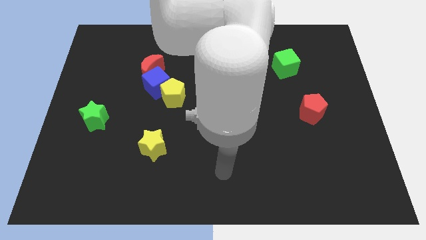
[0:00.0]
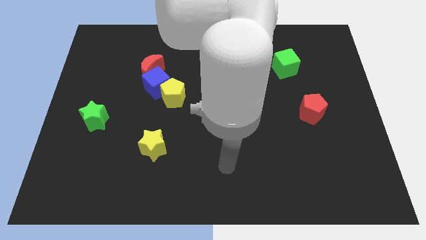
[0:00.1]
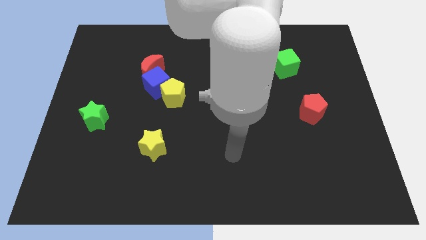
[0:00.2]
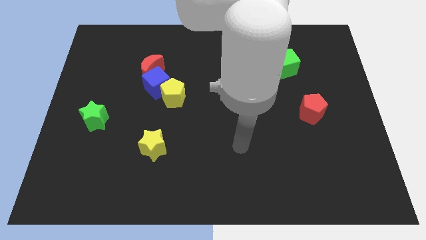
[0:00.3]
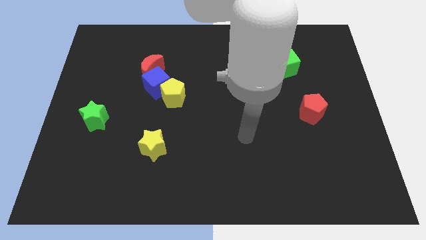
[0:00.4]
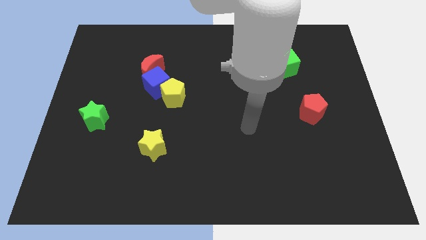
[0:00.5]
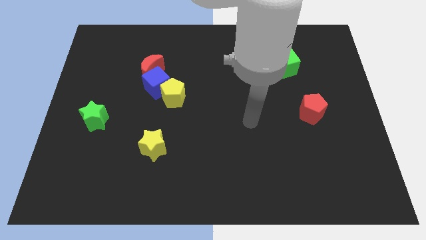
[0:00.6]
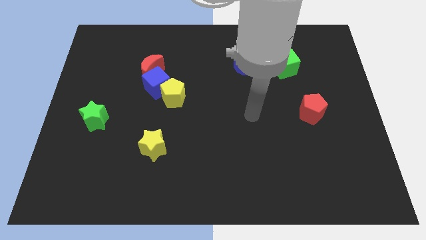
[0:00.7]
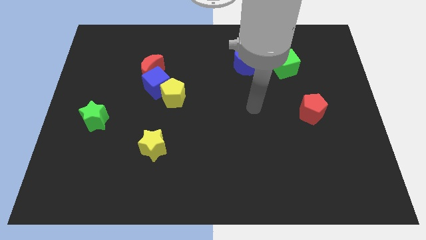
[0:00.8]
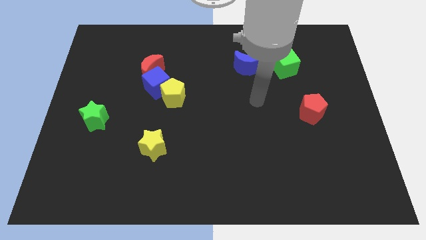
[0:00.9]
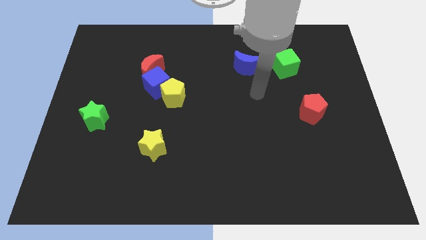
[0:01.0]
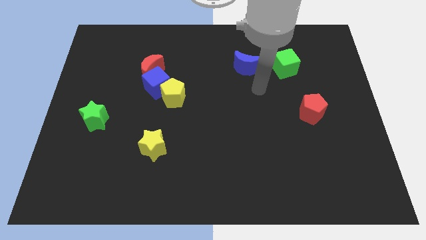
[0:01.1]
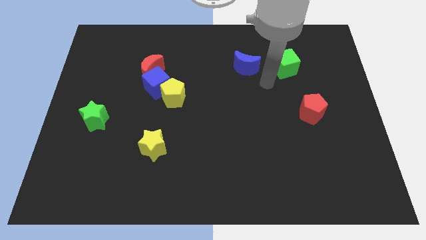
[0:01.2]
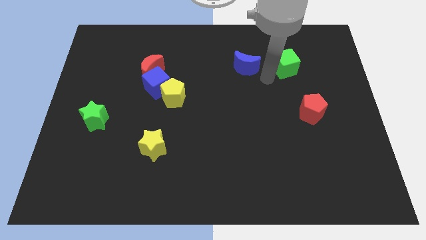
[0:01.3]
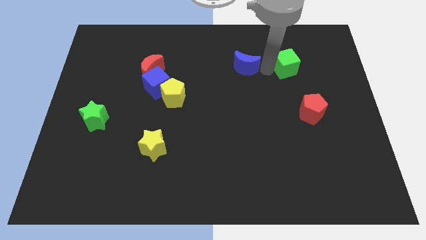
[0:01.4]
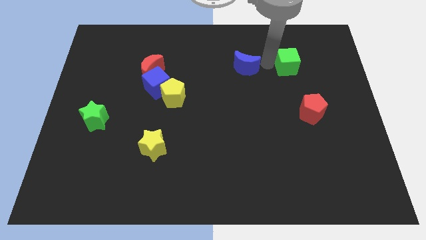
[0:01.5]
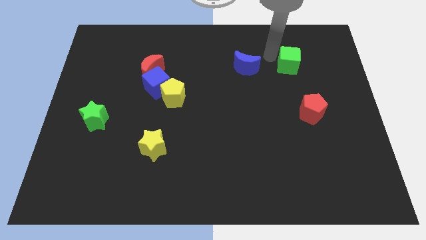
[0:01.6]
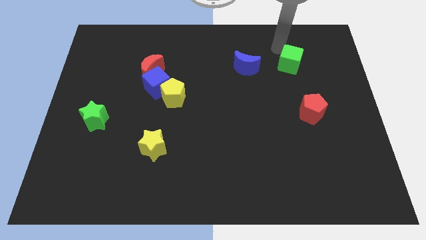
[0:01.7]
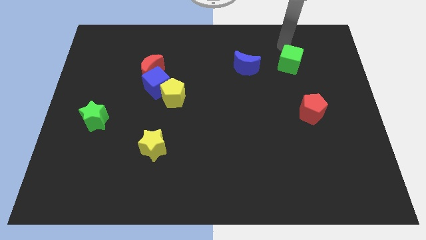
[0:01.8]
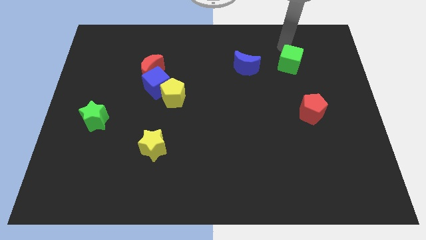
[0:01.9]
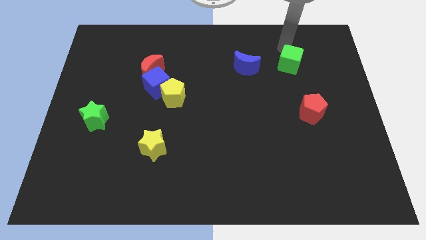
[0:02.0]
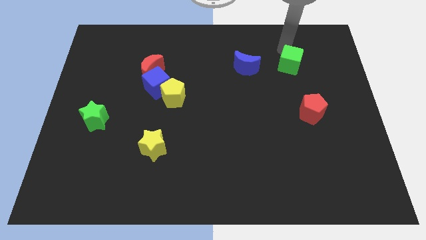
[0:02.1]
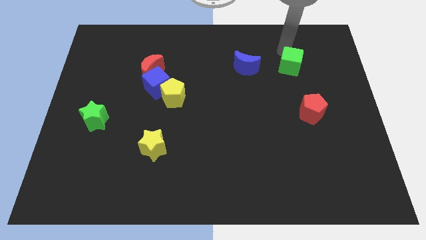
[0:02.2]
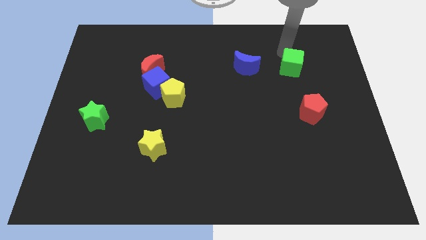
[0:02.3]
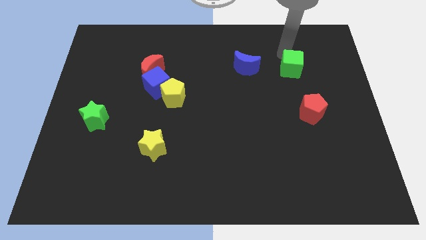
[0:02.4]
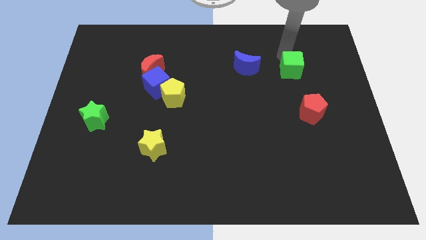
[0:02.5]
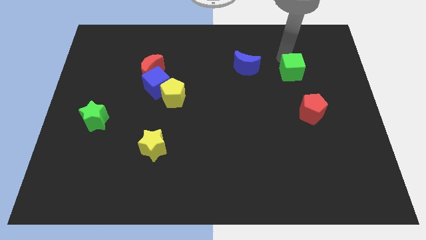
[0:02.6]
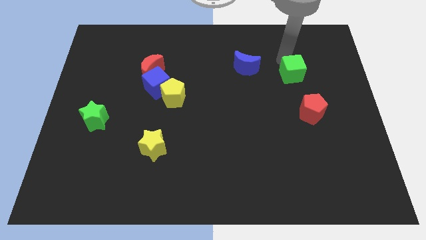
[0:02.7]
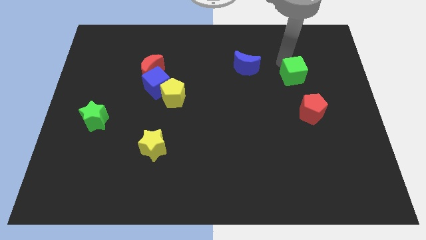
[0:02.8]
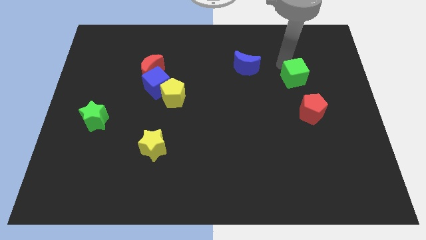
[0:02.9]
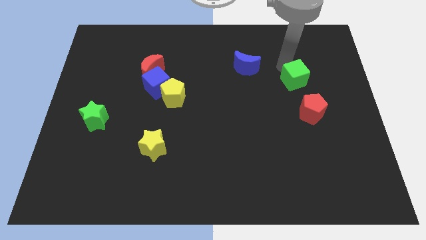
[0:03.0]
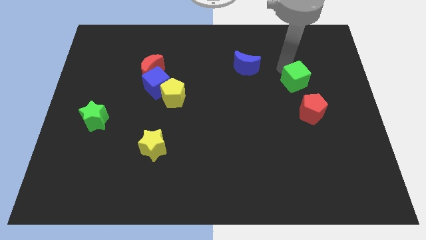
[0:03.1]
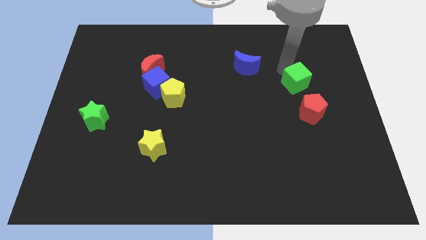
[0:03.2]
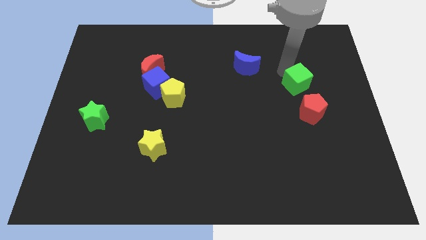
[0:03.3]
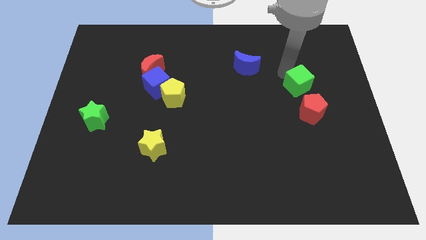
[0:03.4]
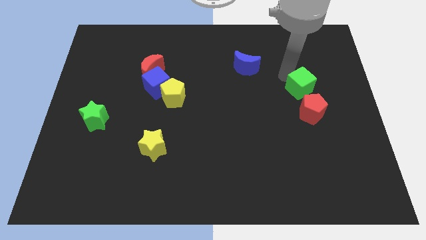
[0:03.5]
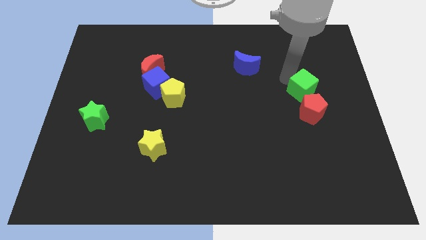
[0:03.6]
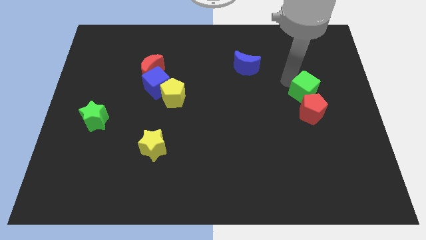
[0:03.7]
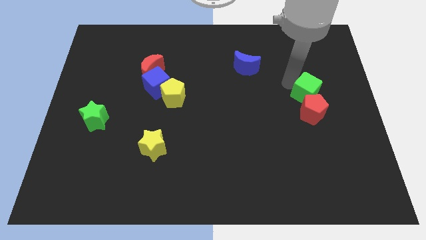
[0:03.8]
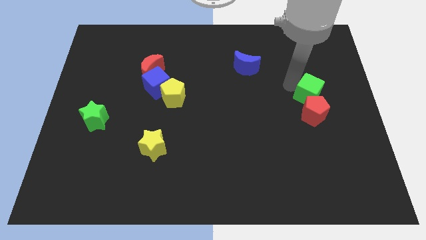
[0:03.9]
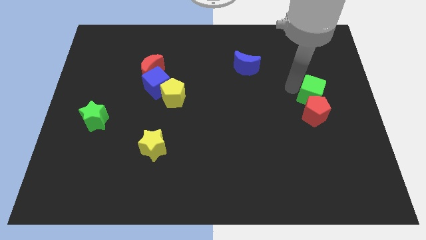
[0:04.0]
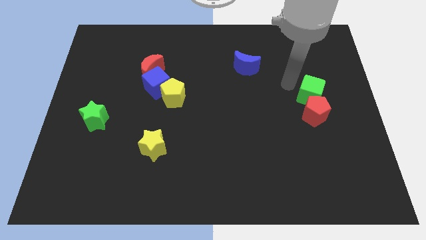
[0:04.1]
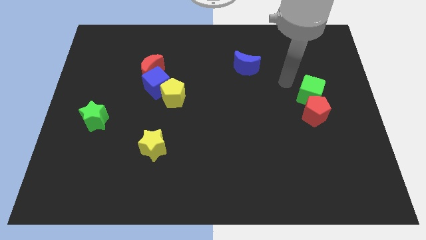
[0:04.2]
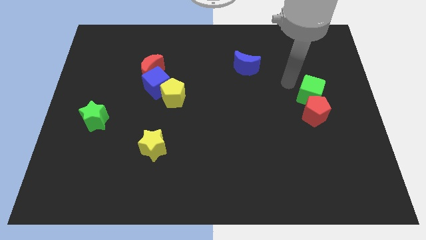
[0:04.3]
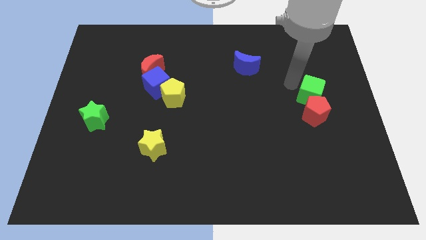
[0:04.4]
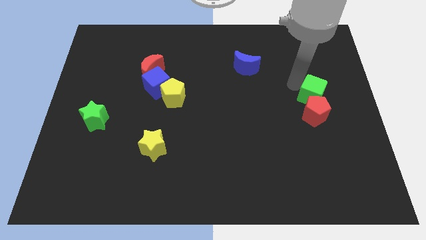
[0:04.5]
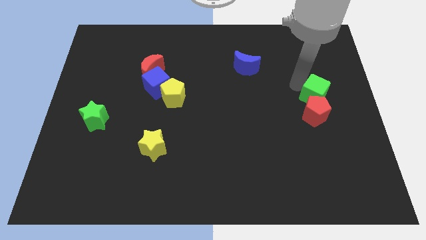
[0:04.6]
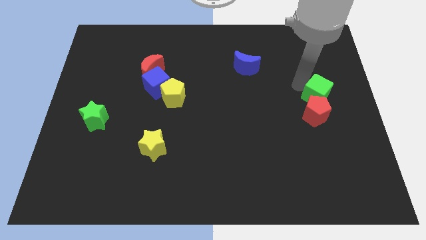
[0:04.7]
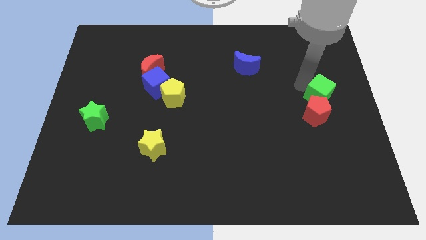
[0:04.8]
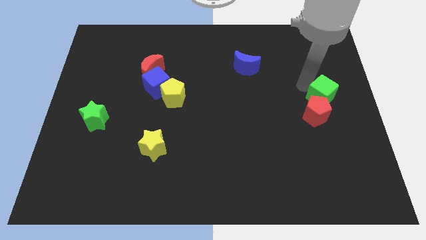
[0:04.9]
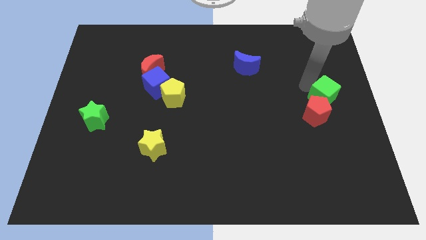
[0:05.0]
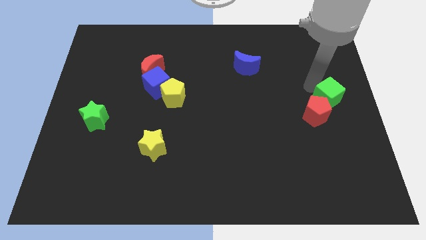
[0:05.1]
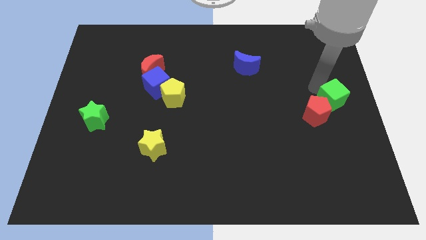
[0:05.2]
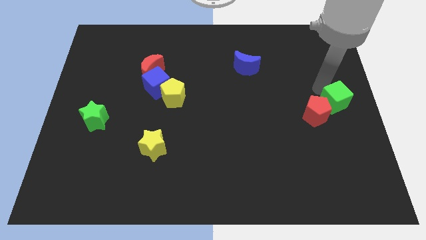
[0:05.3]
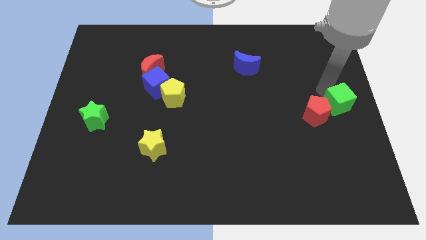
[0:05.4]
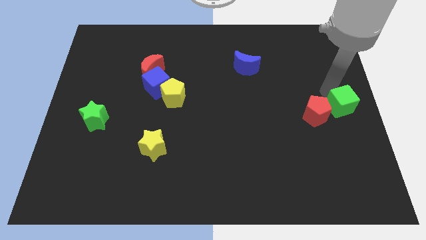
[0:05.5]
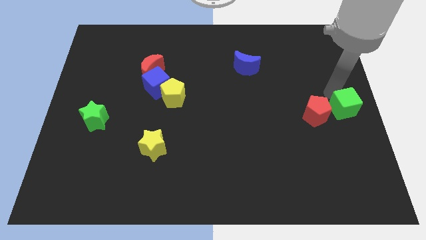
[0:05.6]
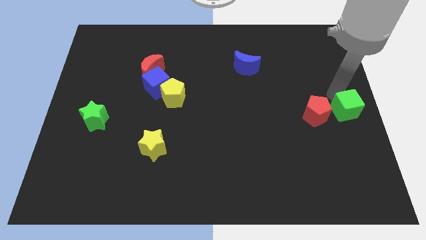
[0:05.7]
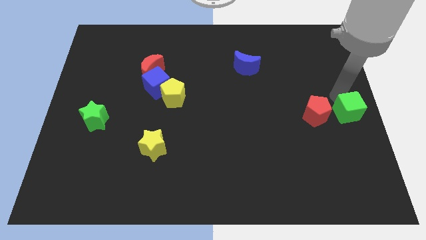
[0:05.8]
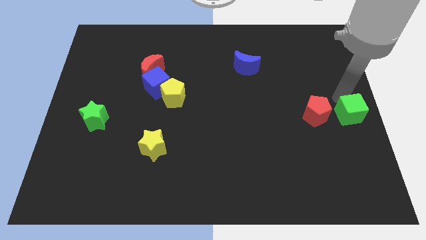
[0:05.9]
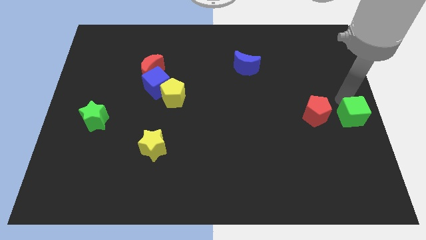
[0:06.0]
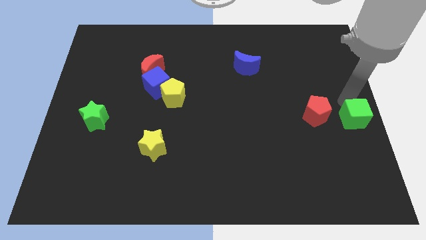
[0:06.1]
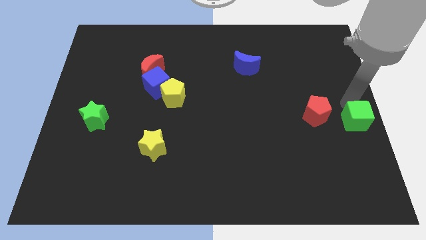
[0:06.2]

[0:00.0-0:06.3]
put the green cube diagonally down and to the right of the red pentagon

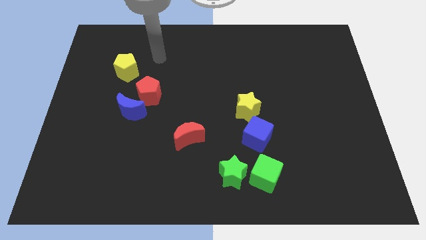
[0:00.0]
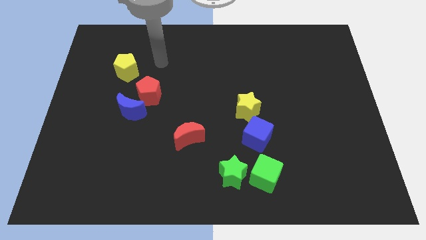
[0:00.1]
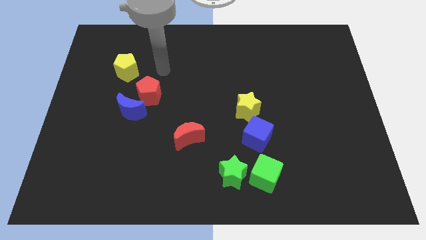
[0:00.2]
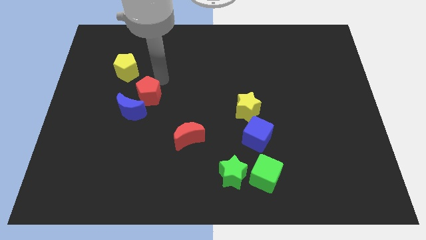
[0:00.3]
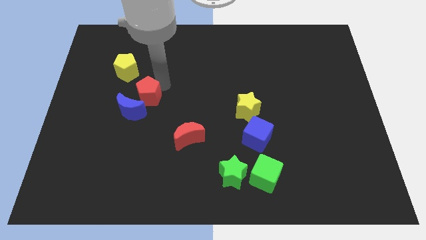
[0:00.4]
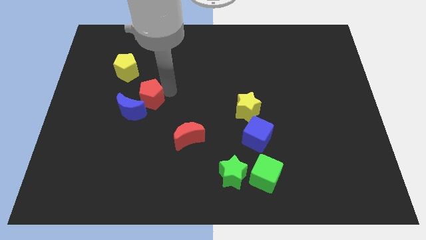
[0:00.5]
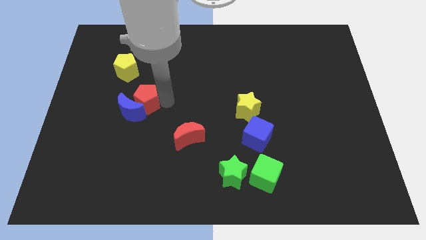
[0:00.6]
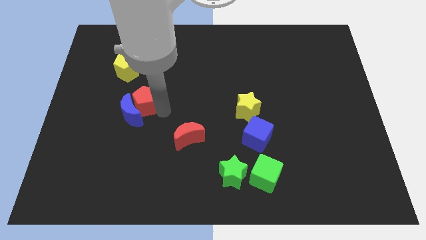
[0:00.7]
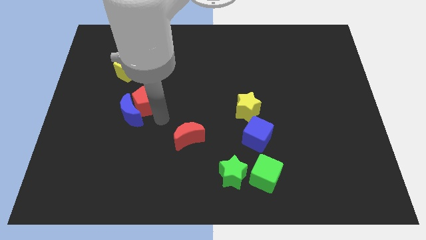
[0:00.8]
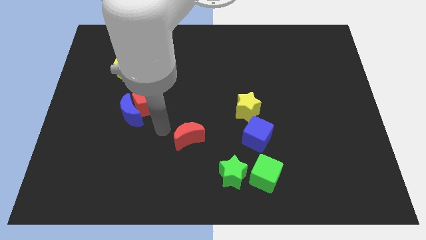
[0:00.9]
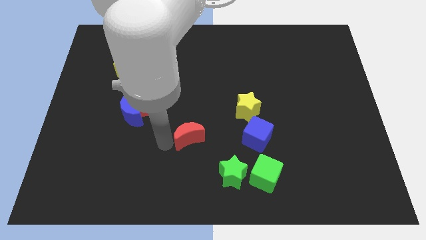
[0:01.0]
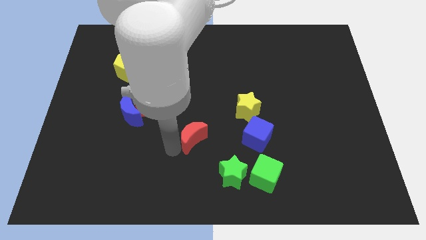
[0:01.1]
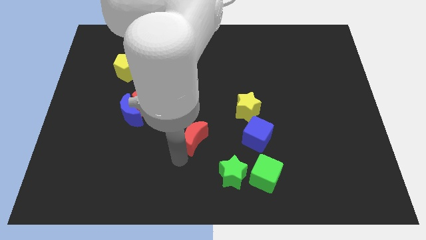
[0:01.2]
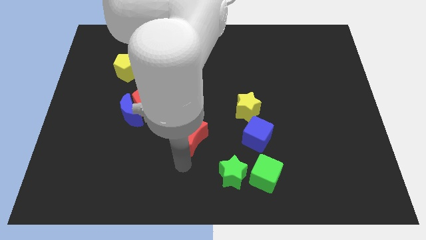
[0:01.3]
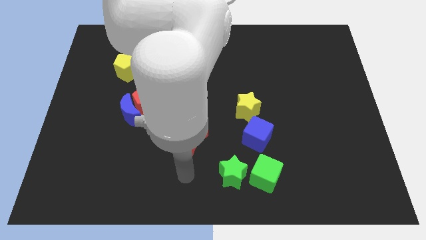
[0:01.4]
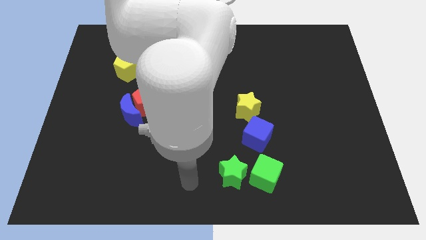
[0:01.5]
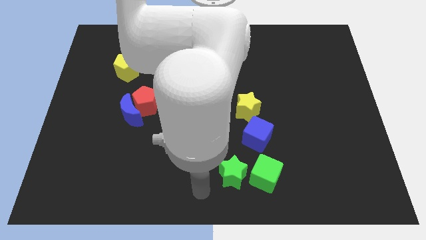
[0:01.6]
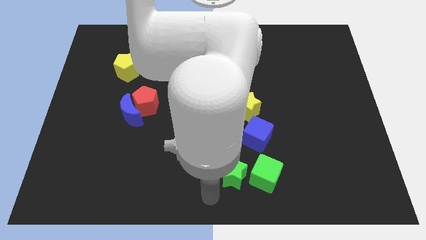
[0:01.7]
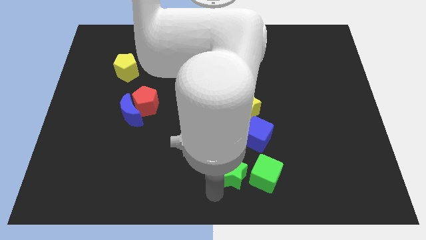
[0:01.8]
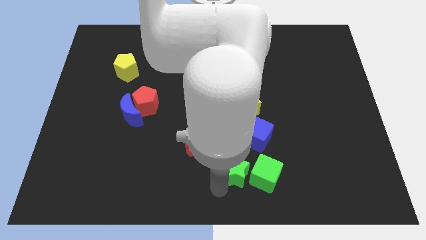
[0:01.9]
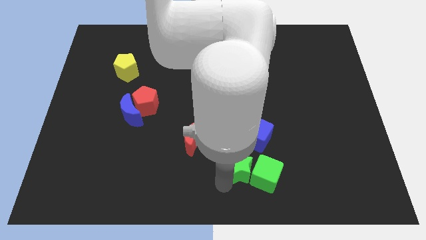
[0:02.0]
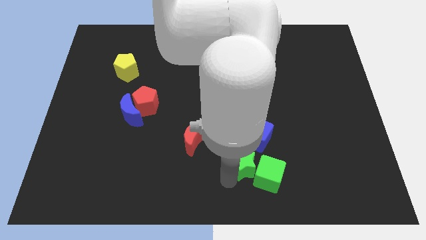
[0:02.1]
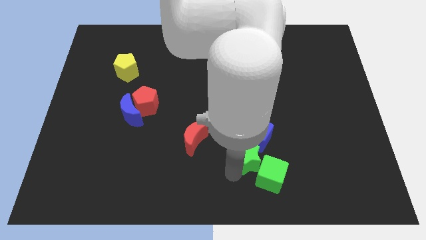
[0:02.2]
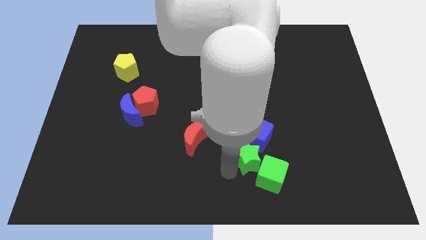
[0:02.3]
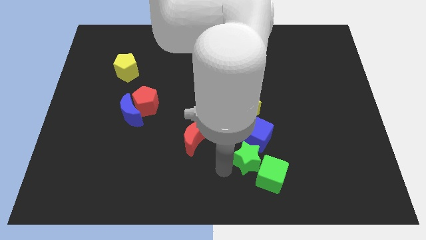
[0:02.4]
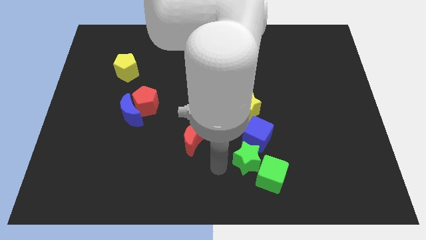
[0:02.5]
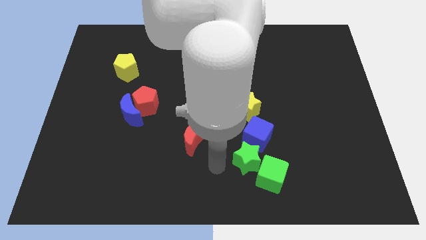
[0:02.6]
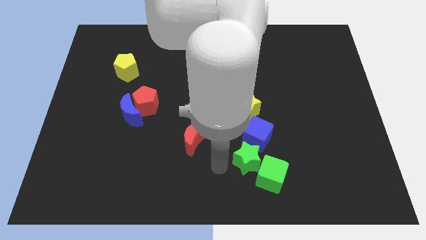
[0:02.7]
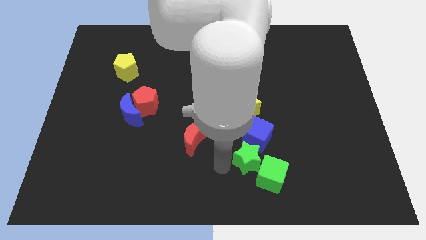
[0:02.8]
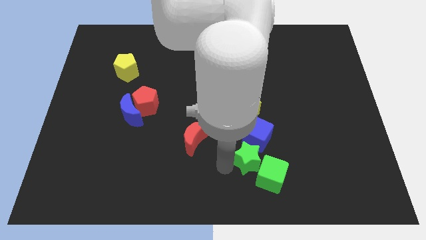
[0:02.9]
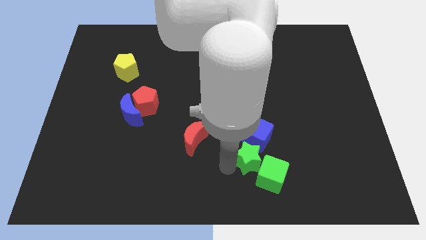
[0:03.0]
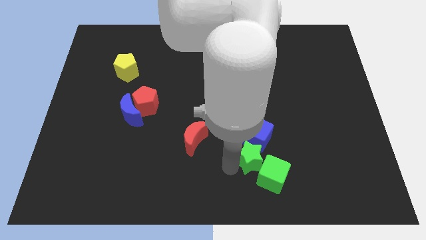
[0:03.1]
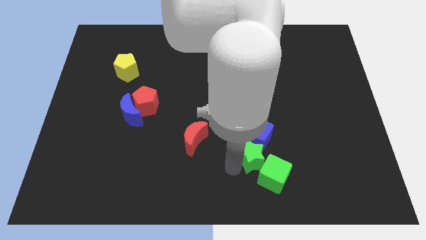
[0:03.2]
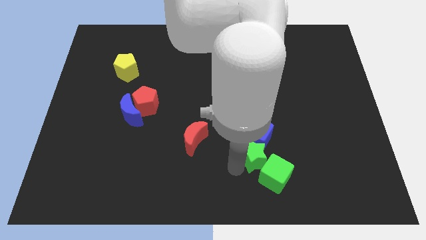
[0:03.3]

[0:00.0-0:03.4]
slide the green star to the bottom right of the blue cube
